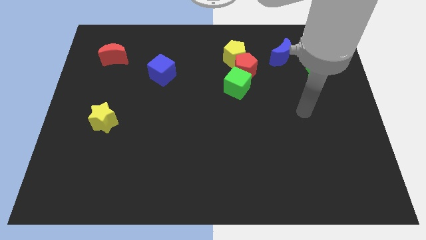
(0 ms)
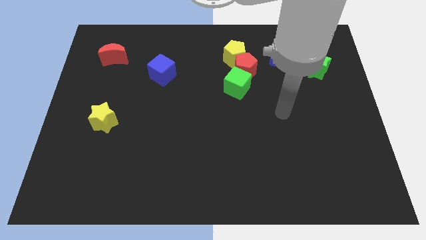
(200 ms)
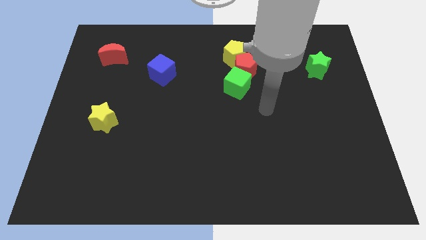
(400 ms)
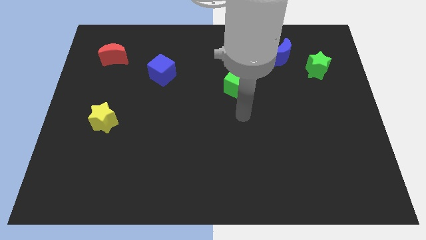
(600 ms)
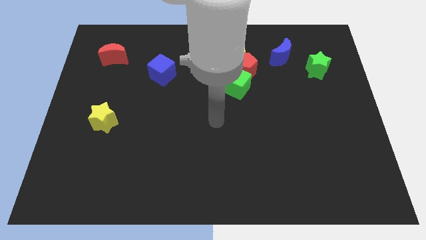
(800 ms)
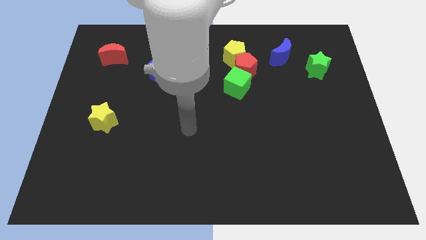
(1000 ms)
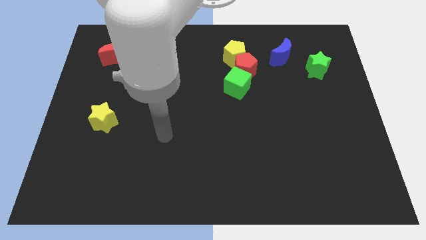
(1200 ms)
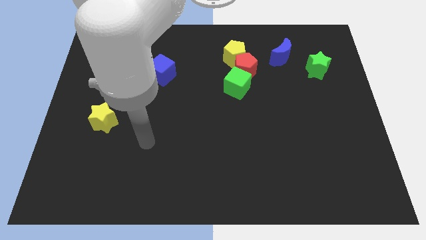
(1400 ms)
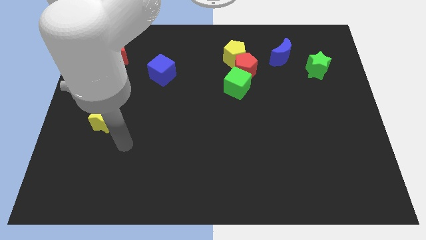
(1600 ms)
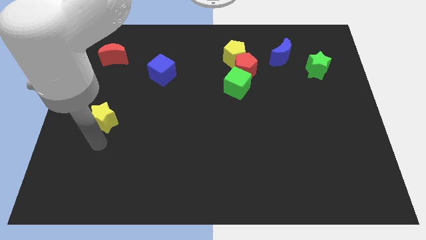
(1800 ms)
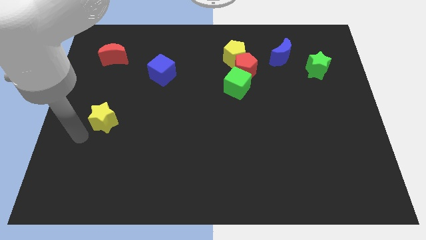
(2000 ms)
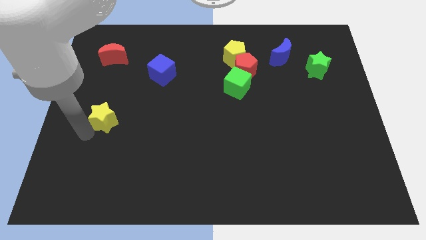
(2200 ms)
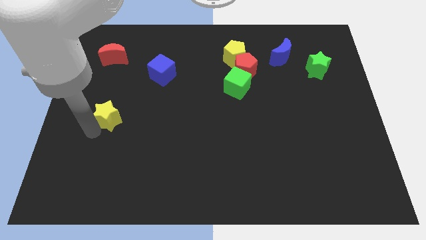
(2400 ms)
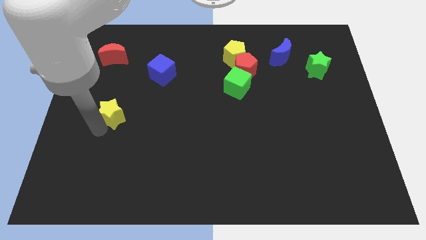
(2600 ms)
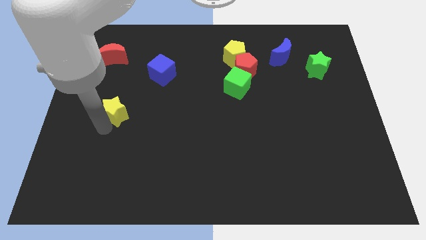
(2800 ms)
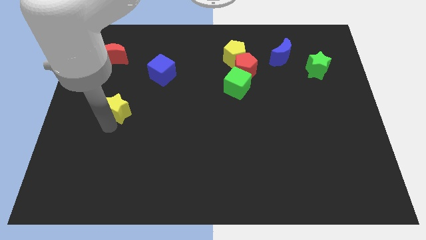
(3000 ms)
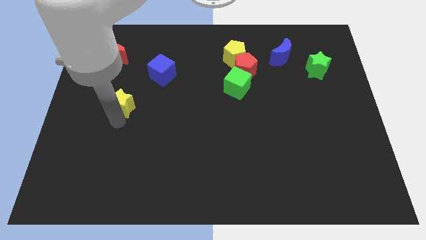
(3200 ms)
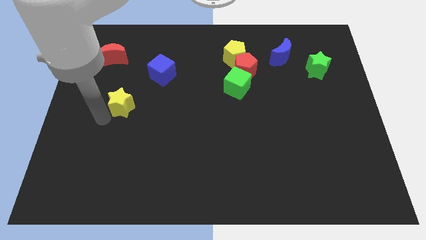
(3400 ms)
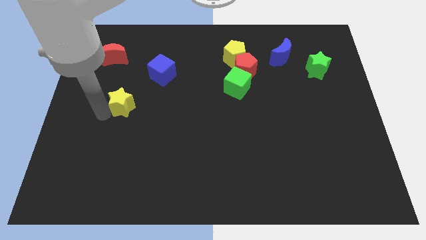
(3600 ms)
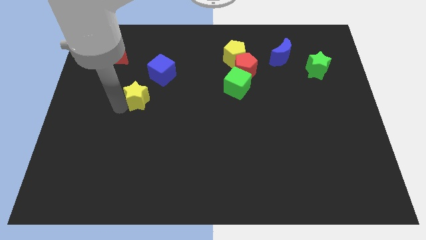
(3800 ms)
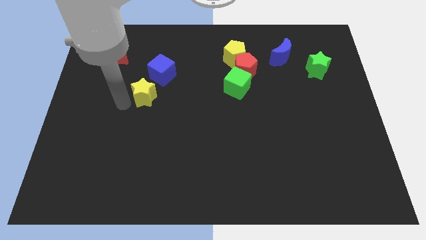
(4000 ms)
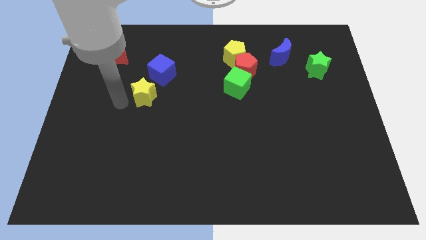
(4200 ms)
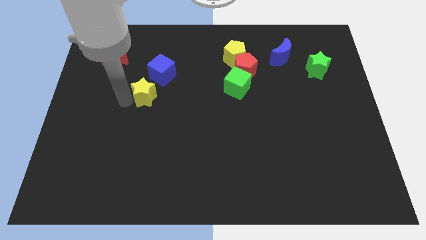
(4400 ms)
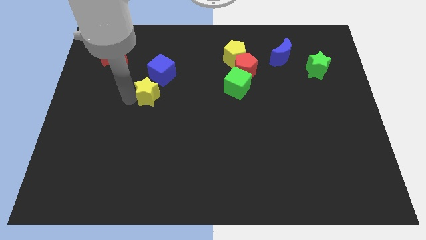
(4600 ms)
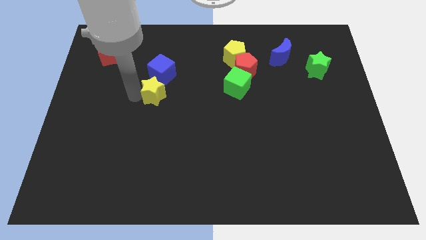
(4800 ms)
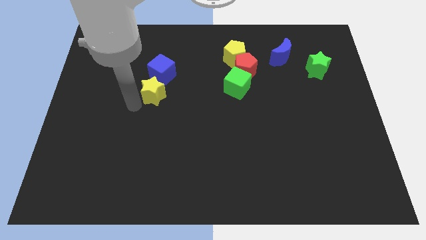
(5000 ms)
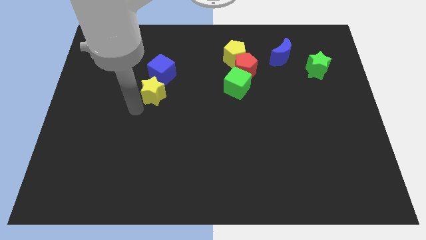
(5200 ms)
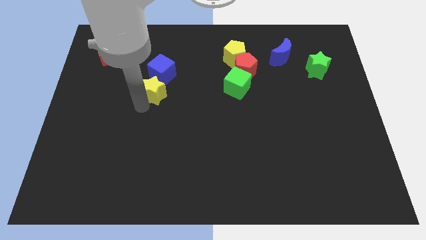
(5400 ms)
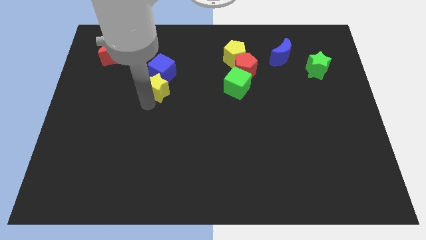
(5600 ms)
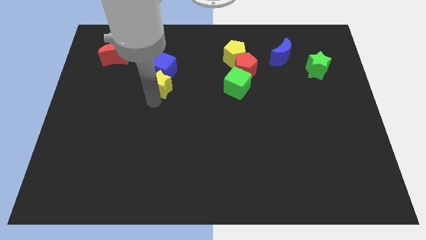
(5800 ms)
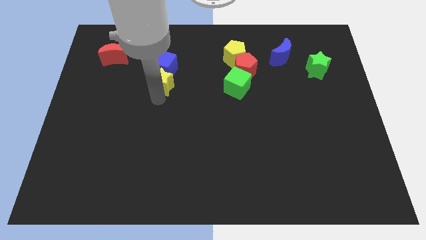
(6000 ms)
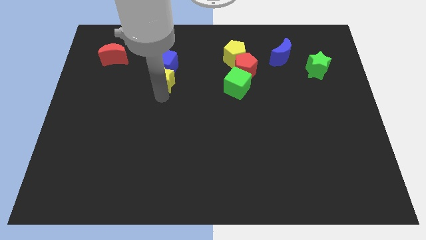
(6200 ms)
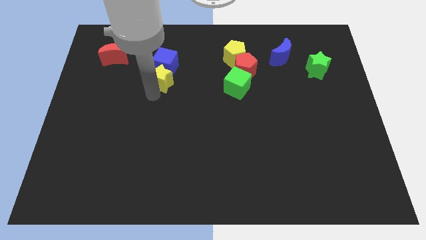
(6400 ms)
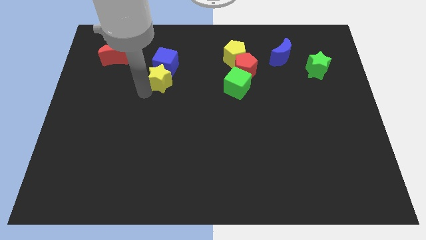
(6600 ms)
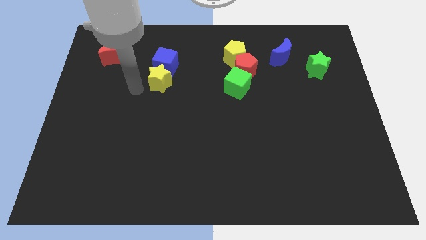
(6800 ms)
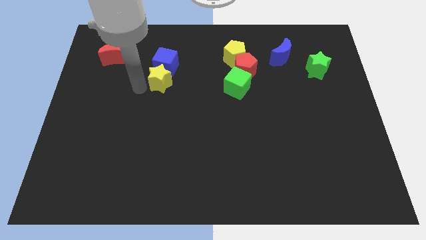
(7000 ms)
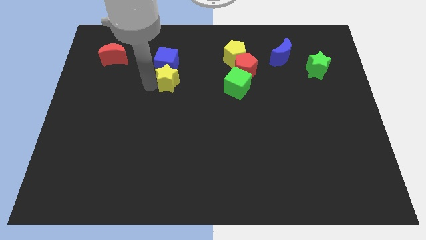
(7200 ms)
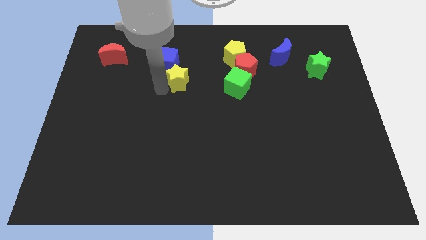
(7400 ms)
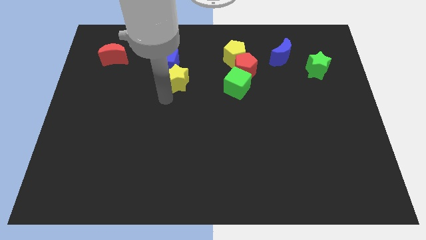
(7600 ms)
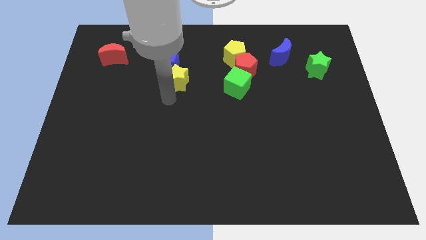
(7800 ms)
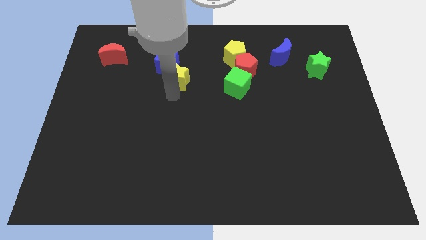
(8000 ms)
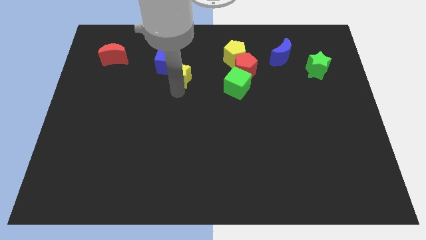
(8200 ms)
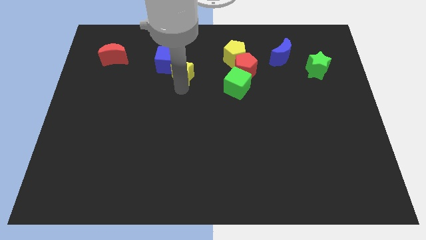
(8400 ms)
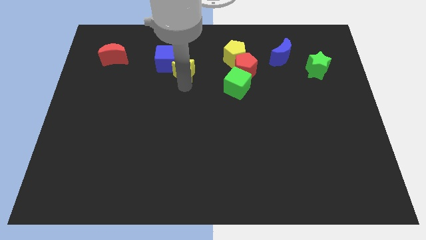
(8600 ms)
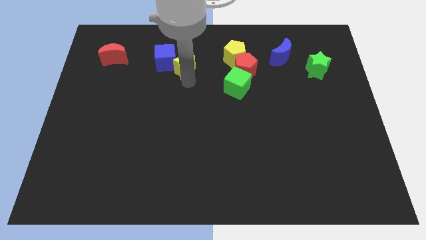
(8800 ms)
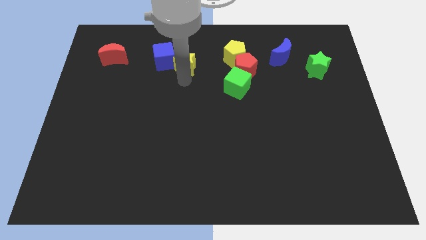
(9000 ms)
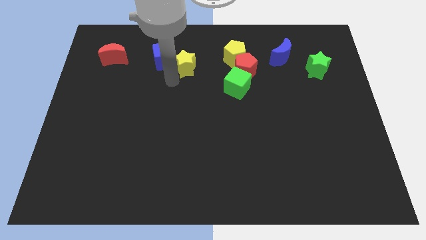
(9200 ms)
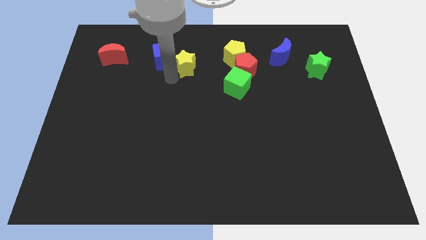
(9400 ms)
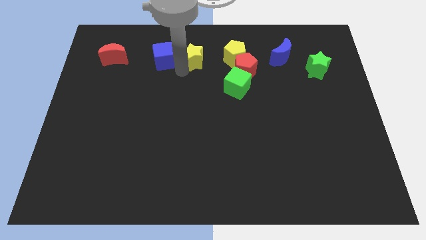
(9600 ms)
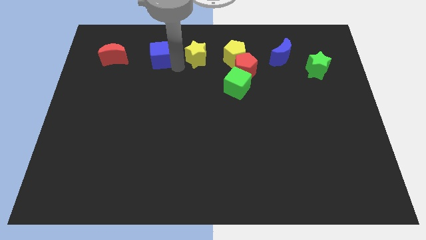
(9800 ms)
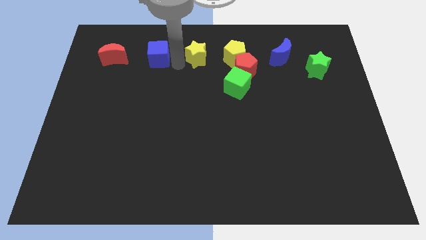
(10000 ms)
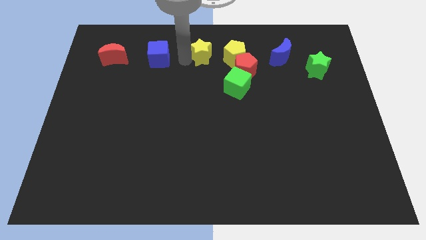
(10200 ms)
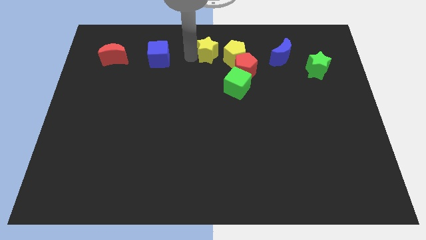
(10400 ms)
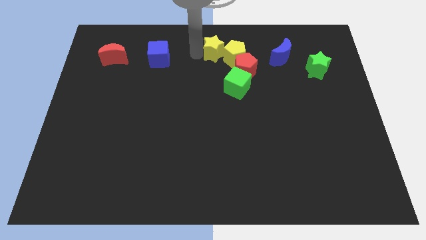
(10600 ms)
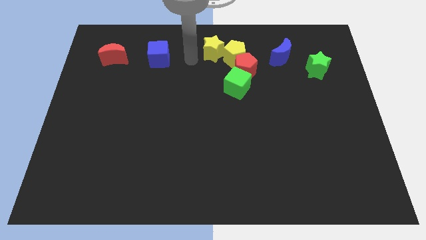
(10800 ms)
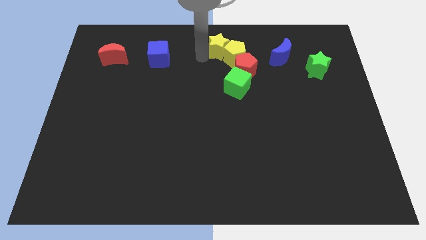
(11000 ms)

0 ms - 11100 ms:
slide the yellow star above the green cube

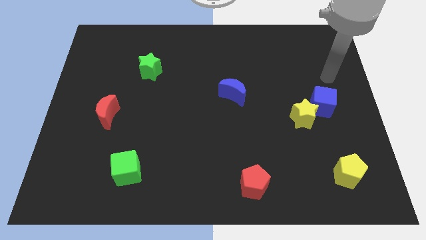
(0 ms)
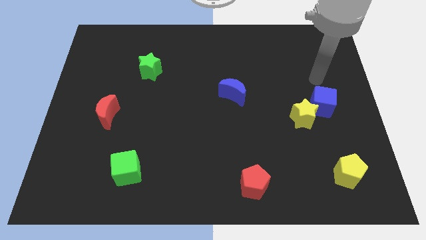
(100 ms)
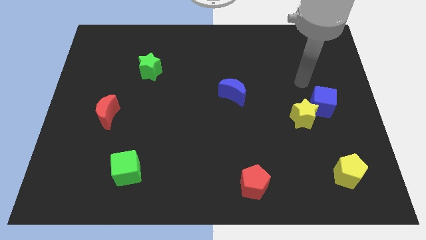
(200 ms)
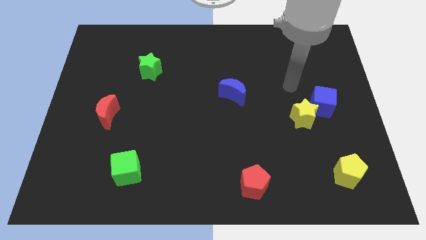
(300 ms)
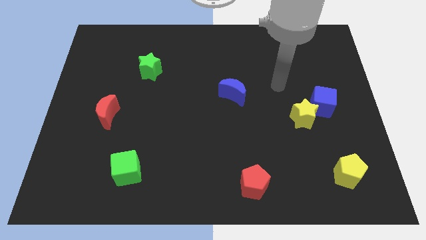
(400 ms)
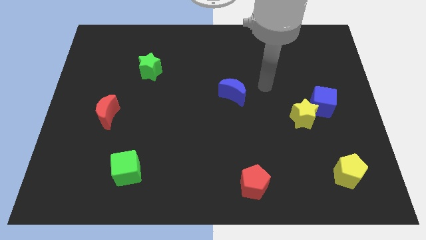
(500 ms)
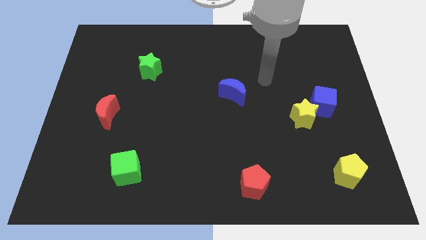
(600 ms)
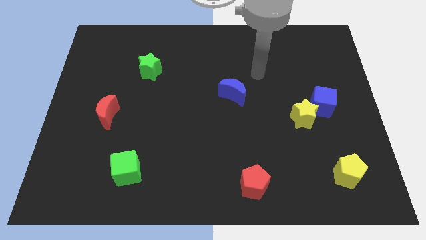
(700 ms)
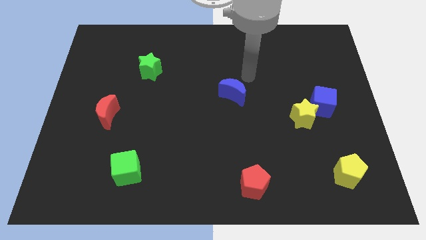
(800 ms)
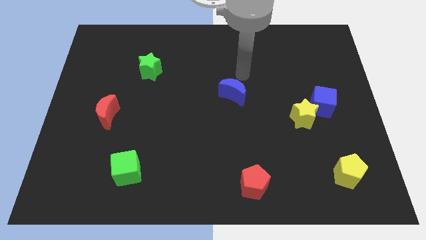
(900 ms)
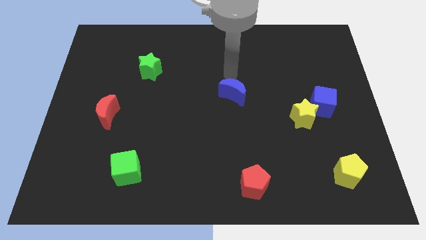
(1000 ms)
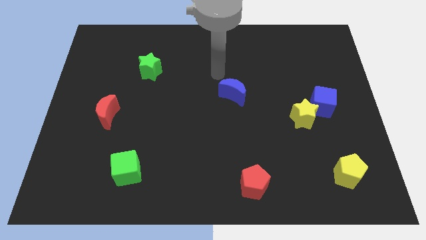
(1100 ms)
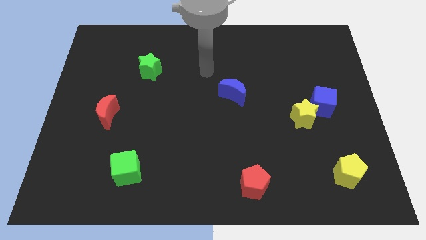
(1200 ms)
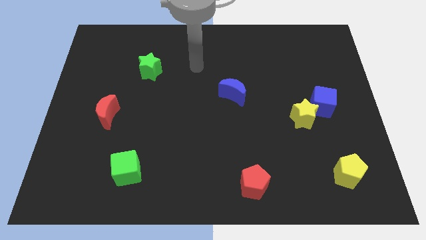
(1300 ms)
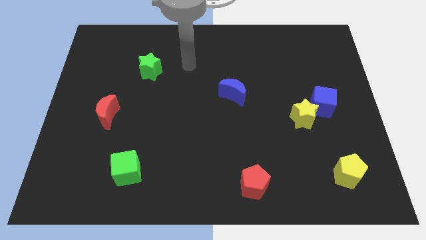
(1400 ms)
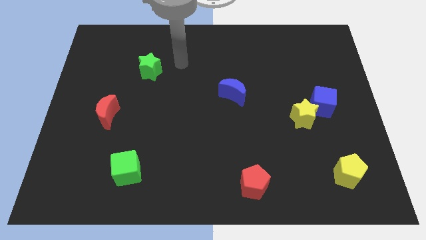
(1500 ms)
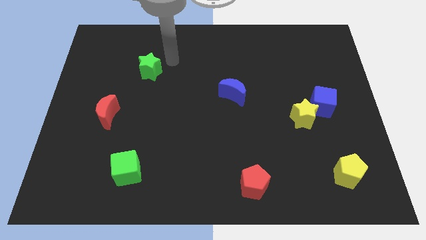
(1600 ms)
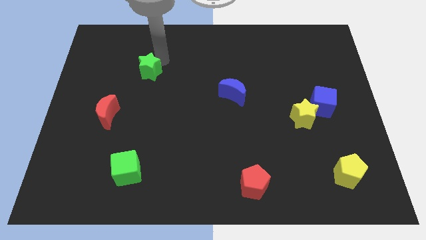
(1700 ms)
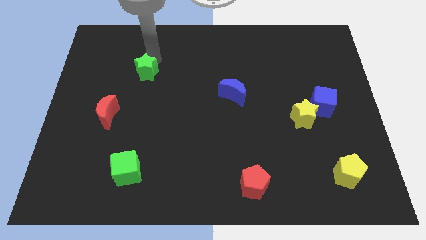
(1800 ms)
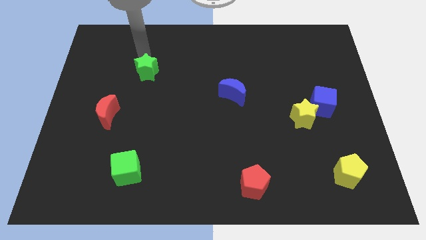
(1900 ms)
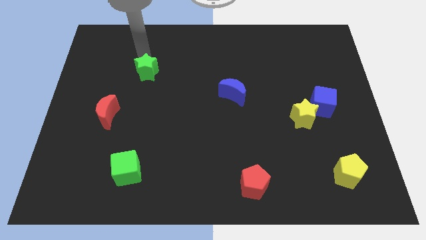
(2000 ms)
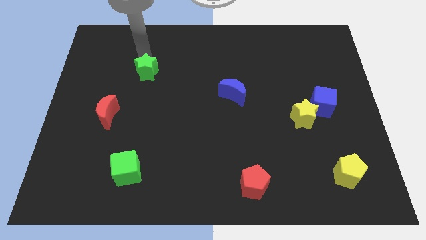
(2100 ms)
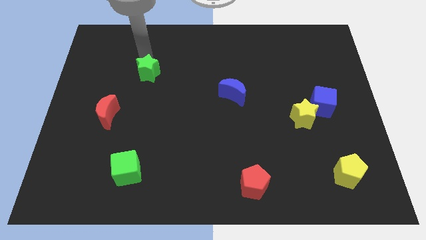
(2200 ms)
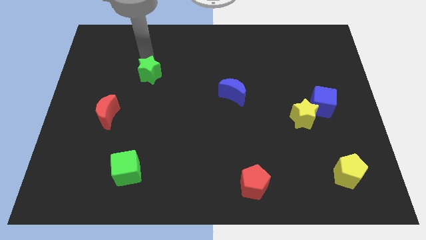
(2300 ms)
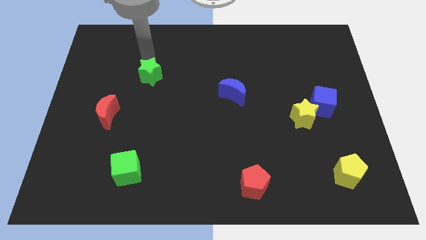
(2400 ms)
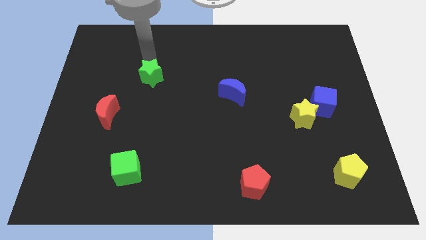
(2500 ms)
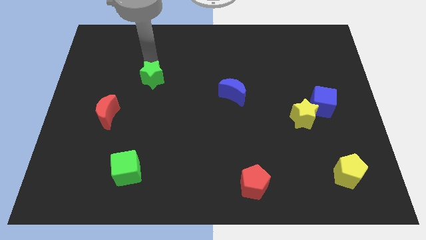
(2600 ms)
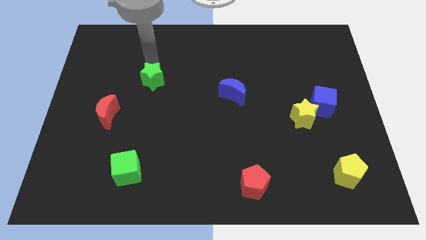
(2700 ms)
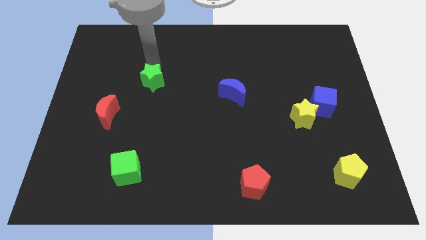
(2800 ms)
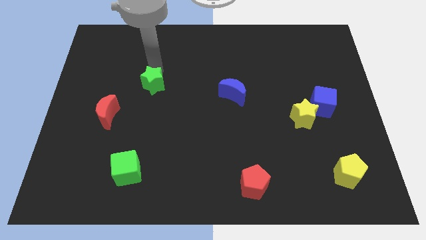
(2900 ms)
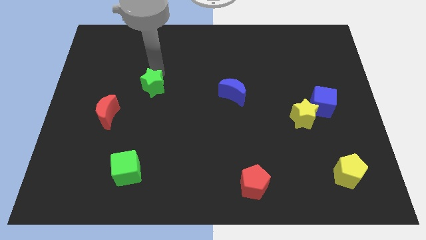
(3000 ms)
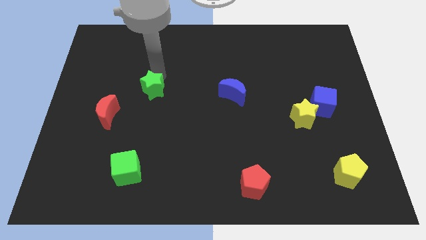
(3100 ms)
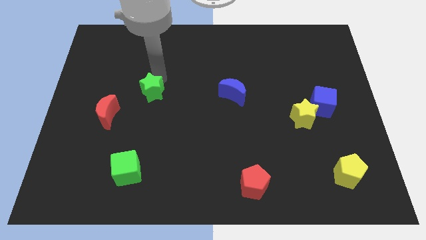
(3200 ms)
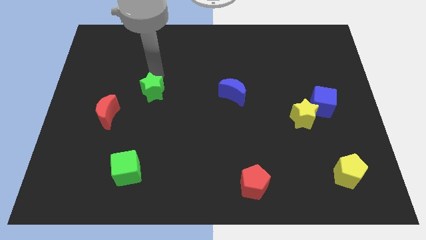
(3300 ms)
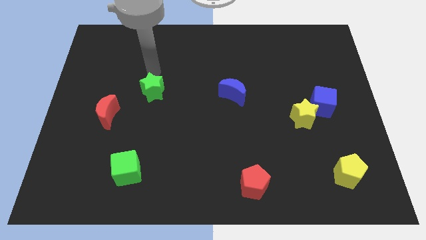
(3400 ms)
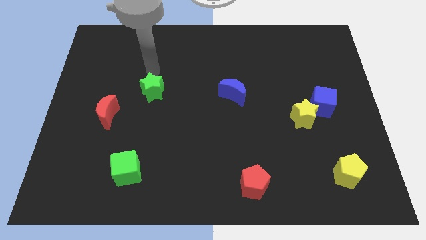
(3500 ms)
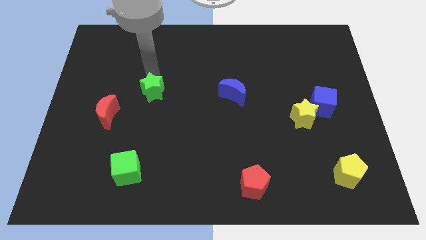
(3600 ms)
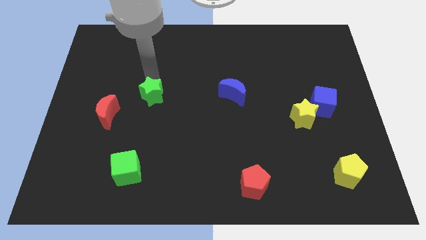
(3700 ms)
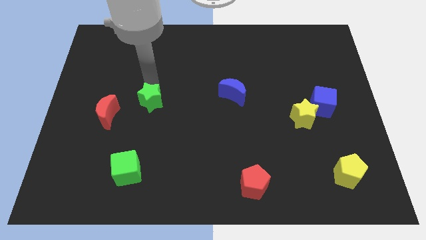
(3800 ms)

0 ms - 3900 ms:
push the green star to the right side of the red moon
